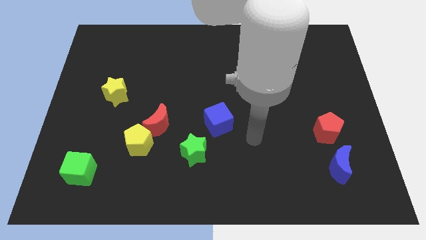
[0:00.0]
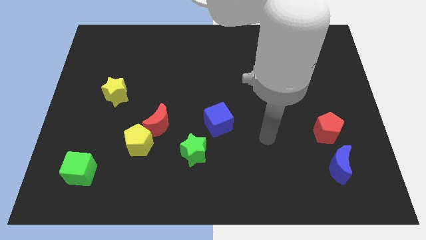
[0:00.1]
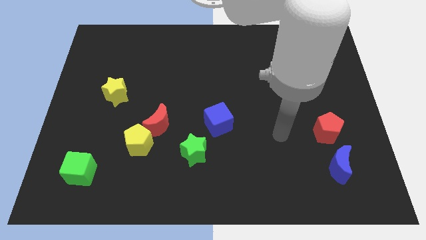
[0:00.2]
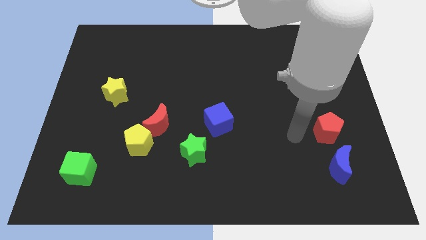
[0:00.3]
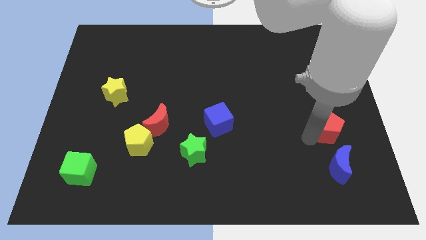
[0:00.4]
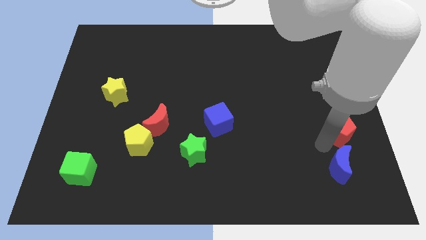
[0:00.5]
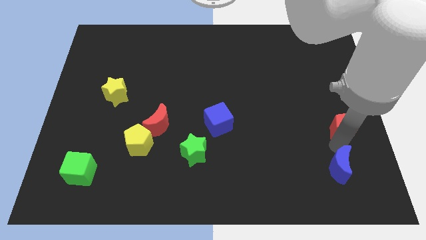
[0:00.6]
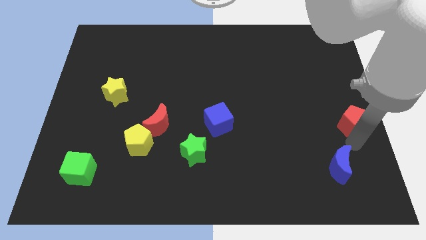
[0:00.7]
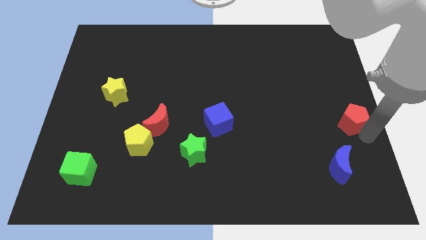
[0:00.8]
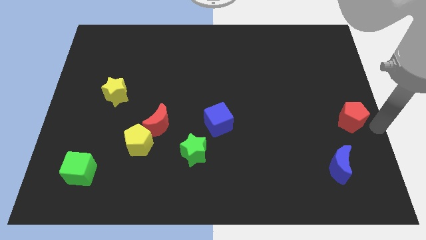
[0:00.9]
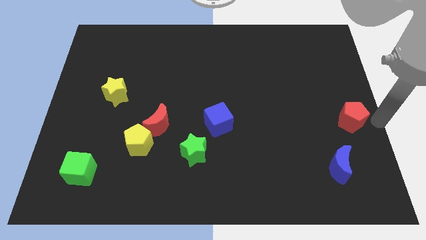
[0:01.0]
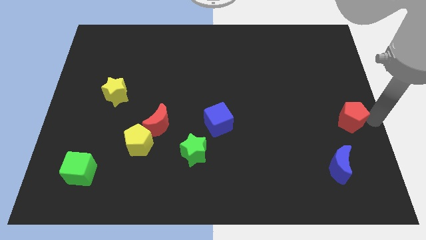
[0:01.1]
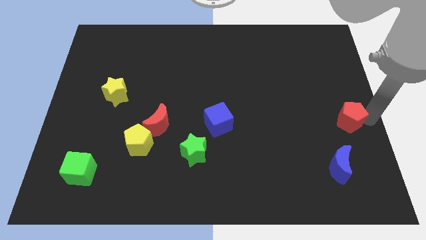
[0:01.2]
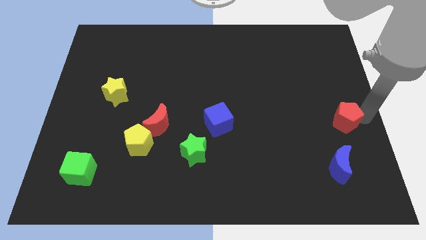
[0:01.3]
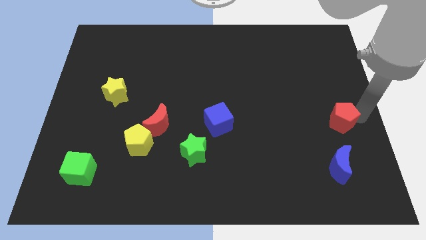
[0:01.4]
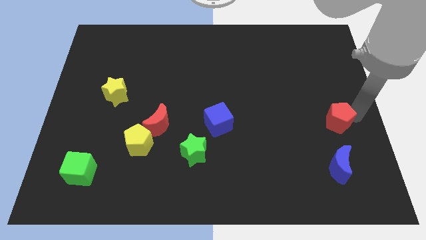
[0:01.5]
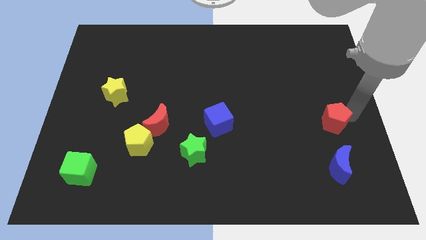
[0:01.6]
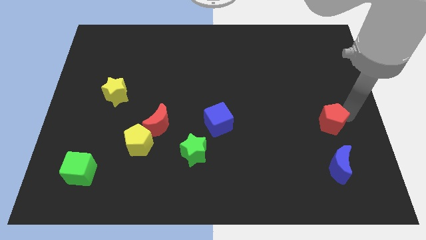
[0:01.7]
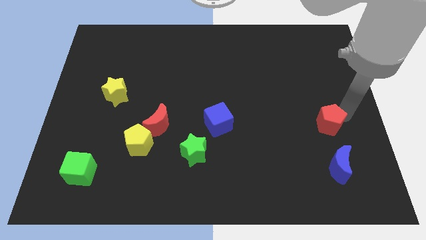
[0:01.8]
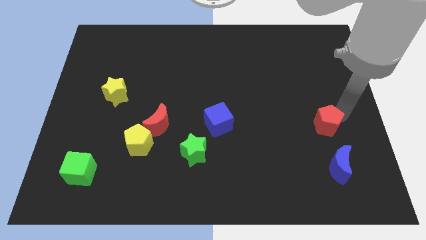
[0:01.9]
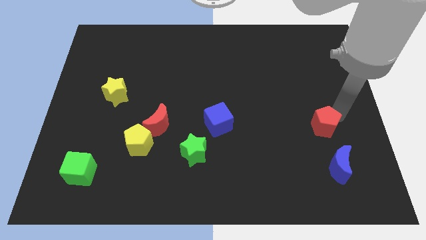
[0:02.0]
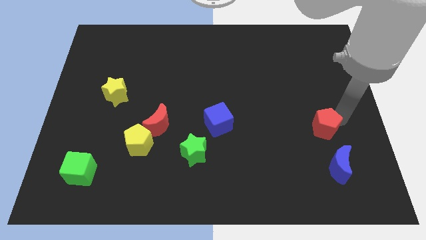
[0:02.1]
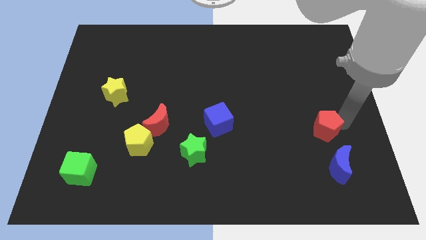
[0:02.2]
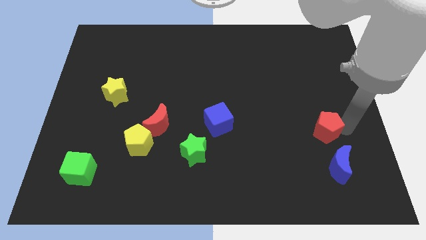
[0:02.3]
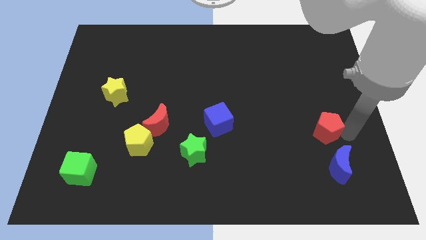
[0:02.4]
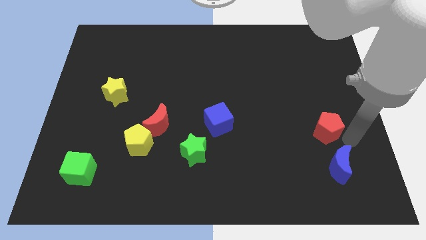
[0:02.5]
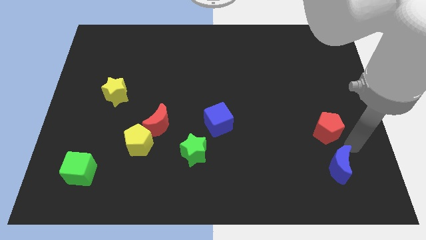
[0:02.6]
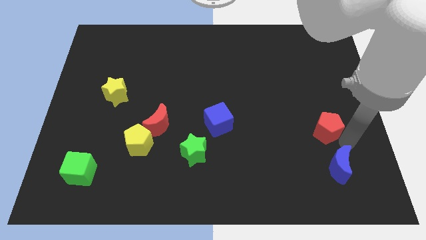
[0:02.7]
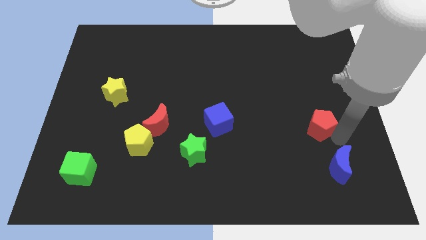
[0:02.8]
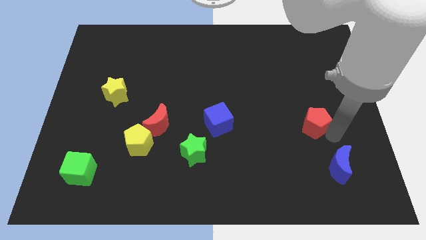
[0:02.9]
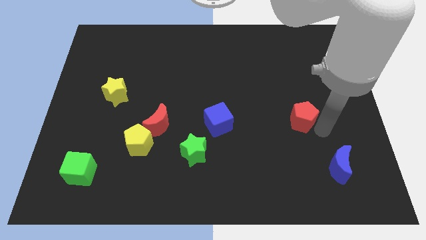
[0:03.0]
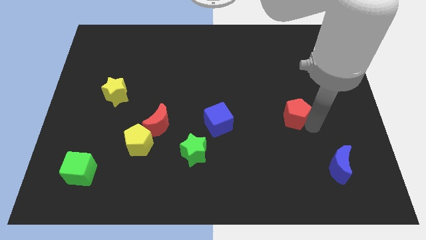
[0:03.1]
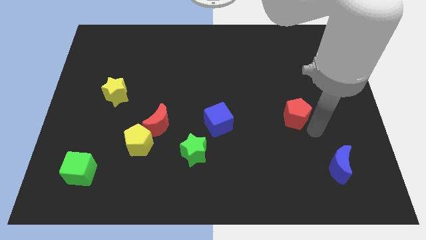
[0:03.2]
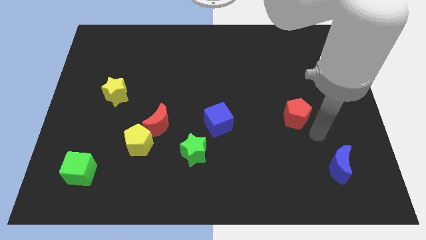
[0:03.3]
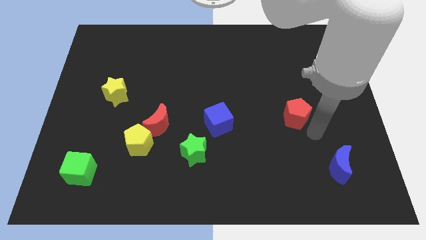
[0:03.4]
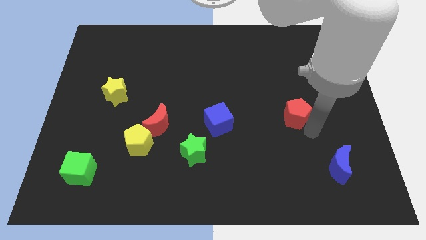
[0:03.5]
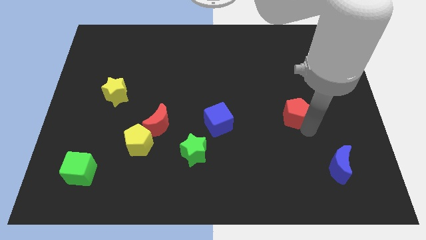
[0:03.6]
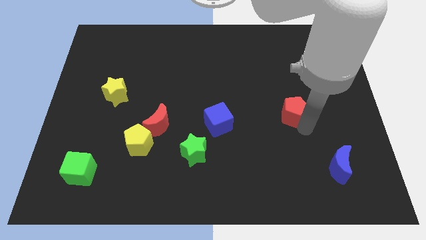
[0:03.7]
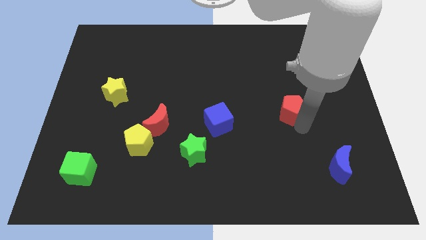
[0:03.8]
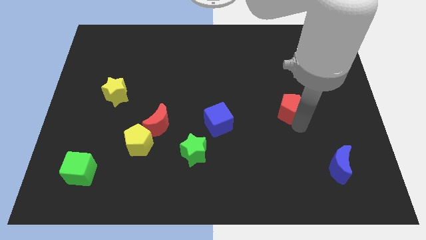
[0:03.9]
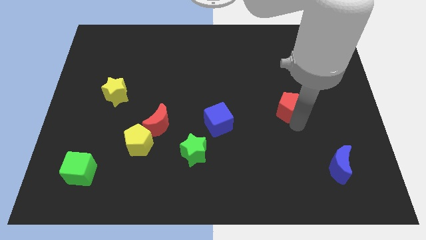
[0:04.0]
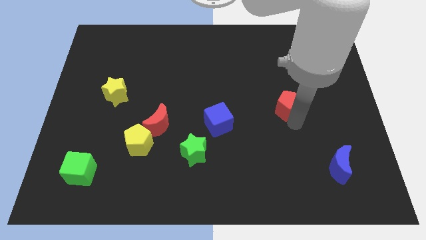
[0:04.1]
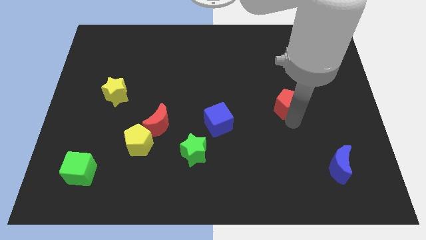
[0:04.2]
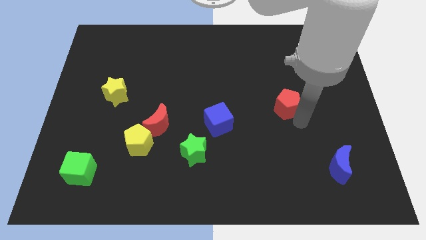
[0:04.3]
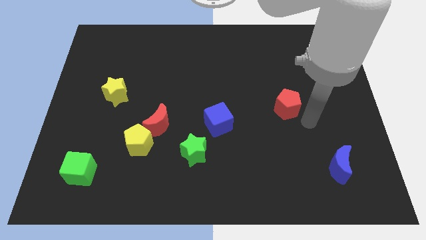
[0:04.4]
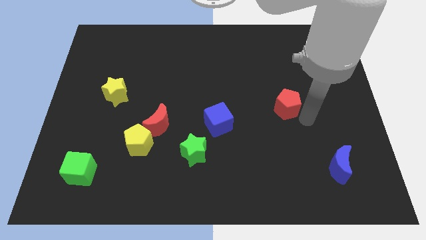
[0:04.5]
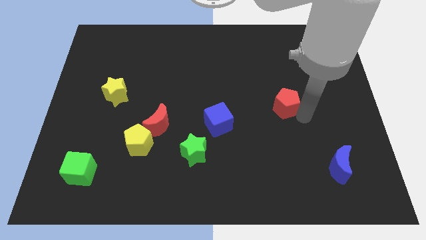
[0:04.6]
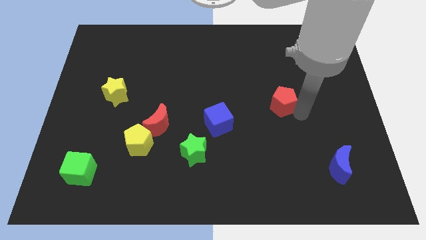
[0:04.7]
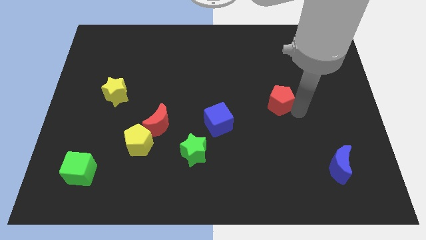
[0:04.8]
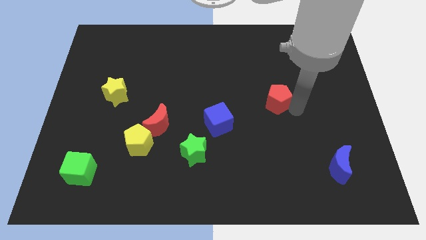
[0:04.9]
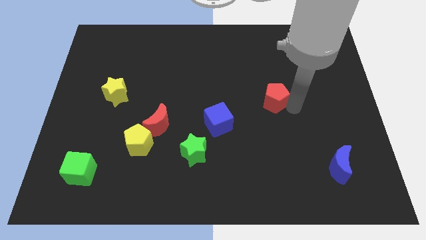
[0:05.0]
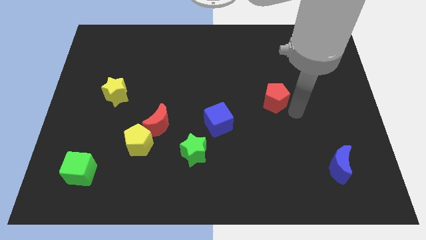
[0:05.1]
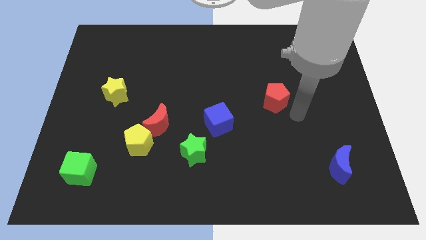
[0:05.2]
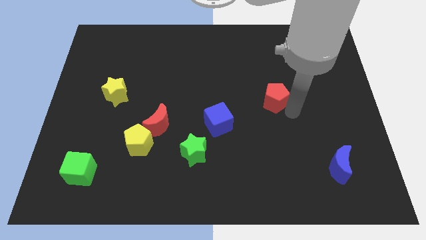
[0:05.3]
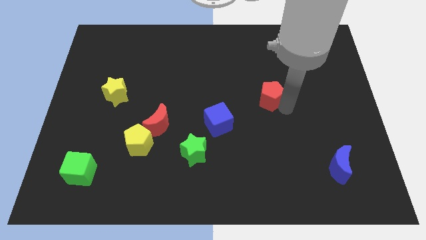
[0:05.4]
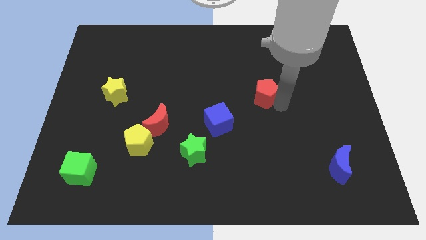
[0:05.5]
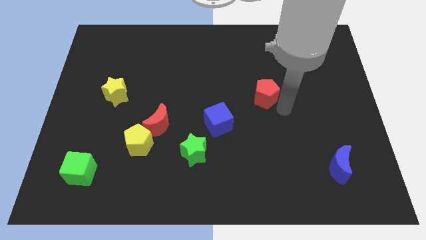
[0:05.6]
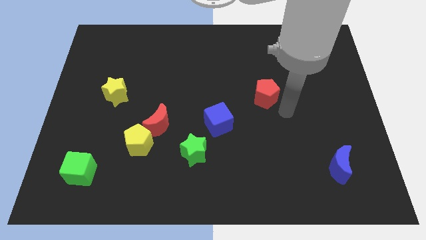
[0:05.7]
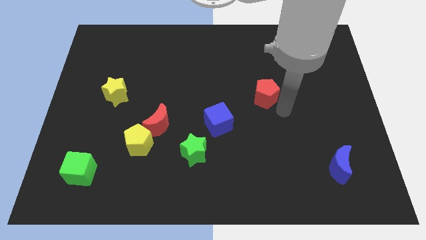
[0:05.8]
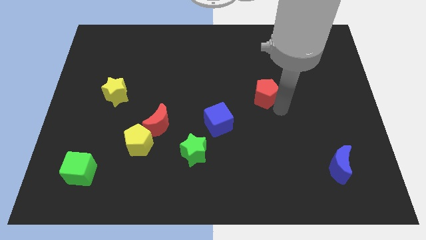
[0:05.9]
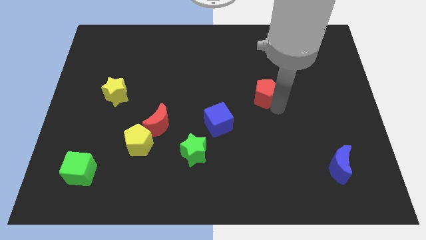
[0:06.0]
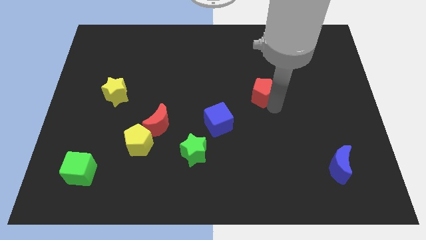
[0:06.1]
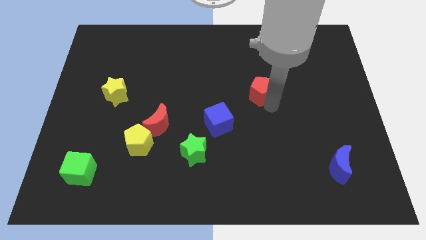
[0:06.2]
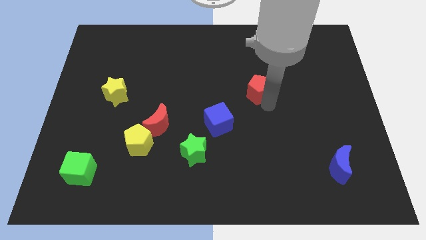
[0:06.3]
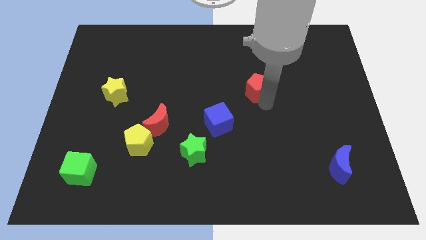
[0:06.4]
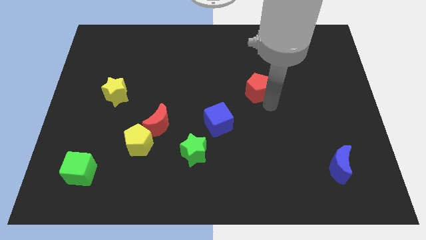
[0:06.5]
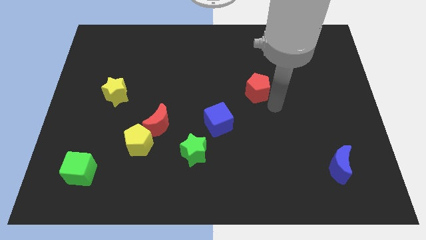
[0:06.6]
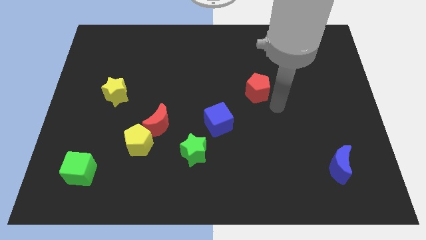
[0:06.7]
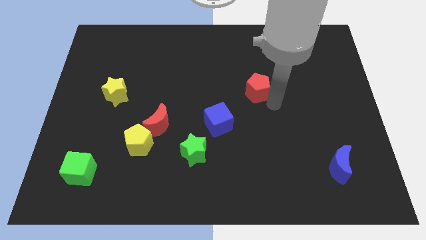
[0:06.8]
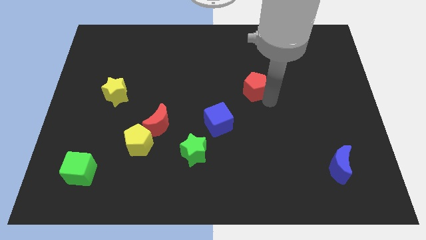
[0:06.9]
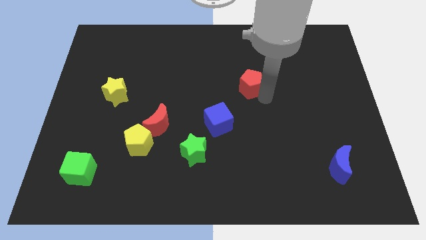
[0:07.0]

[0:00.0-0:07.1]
push the red pentagon up and to the left diagonally

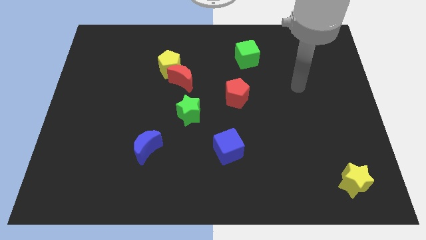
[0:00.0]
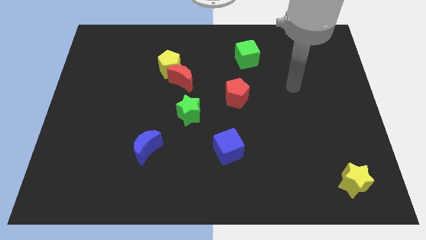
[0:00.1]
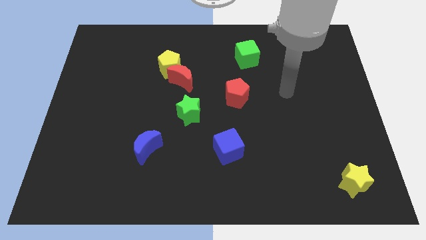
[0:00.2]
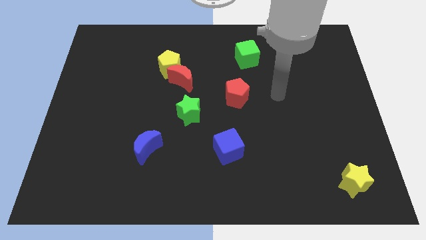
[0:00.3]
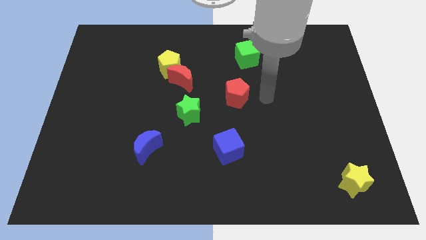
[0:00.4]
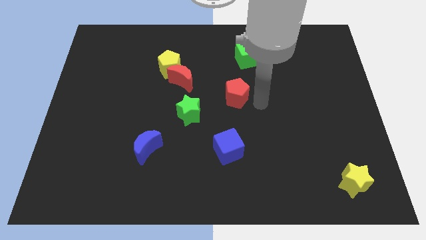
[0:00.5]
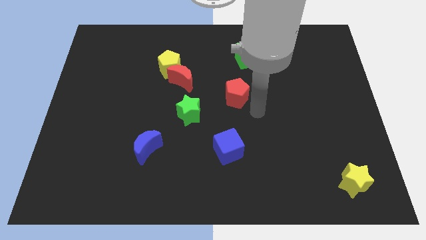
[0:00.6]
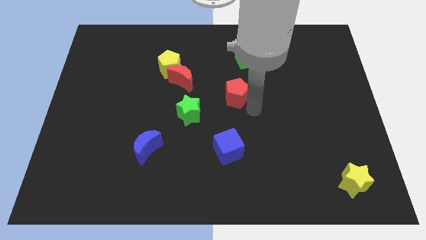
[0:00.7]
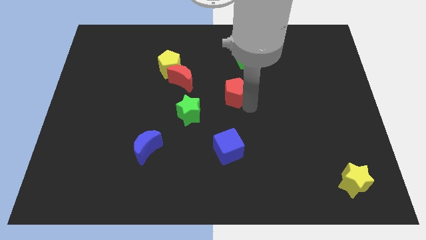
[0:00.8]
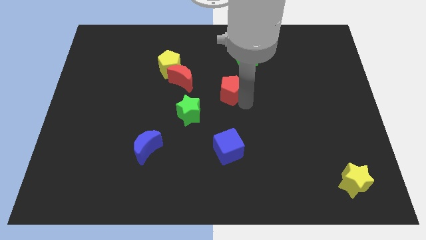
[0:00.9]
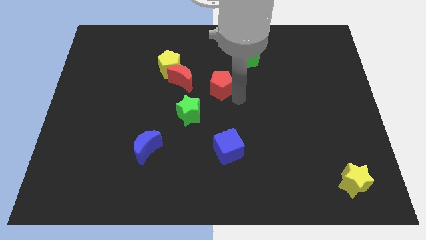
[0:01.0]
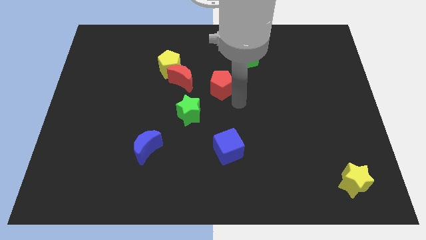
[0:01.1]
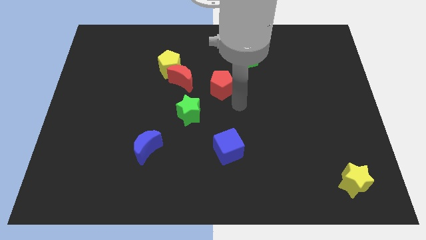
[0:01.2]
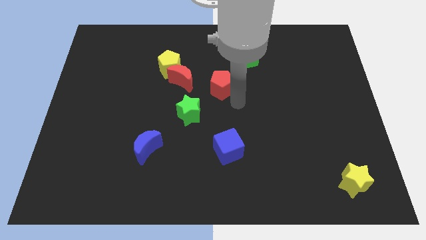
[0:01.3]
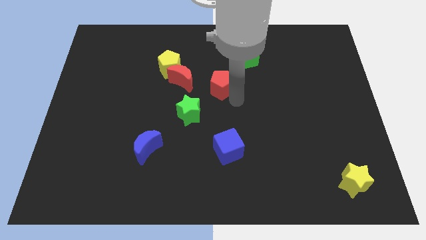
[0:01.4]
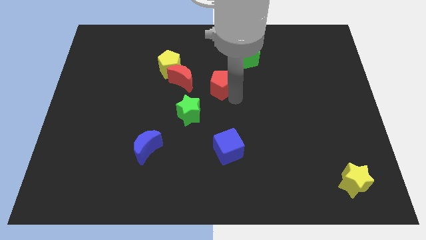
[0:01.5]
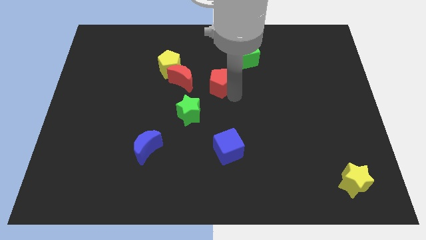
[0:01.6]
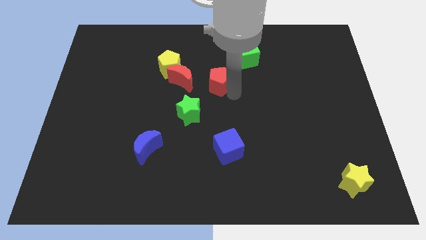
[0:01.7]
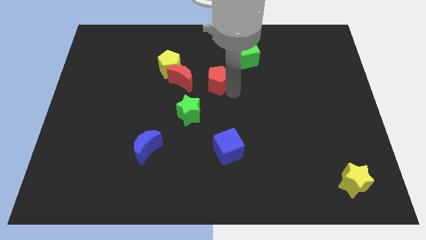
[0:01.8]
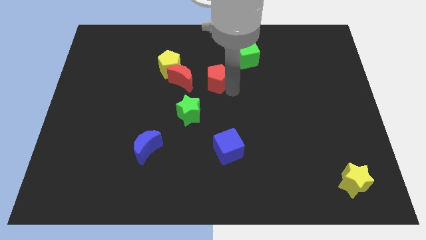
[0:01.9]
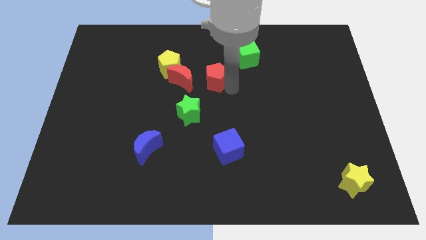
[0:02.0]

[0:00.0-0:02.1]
push the red pentagon slightly diagonally upwards and left
